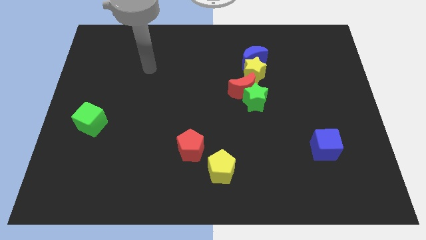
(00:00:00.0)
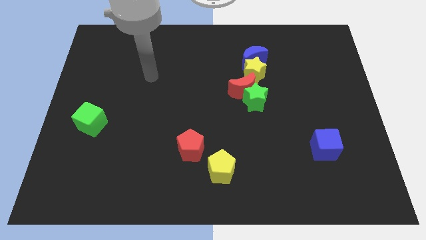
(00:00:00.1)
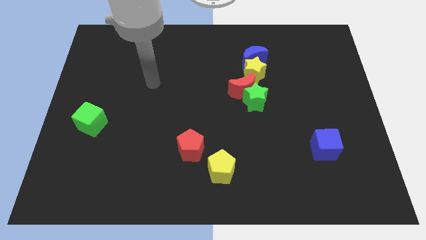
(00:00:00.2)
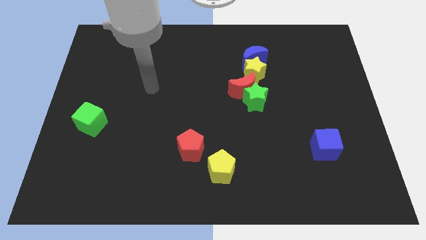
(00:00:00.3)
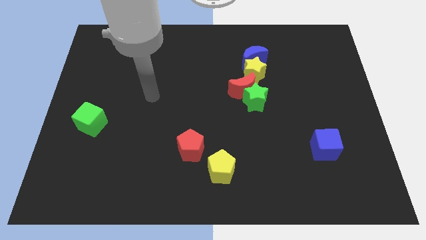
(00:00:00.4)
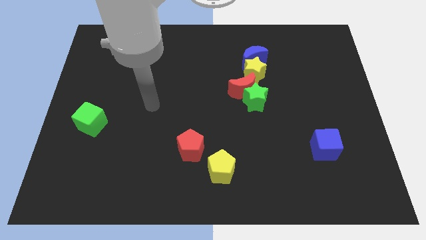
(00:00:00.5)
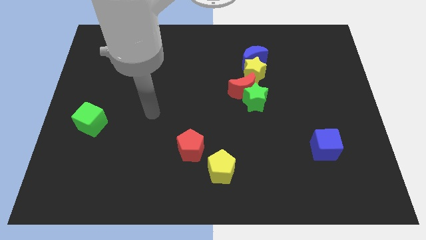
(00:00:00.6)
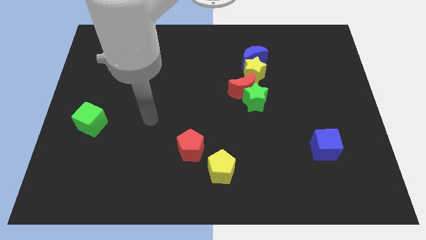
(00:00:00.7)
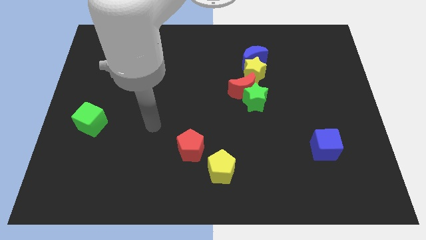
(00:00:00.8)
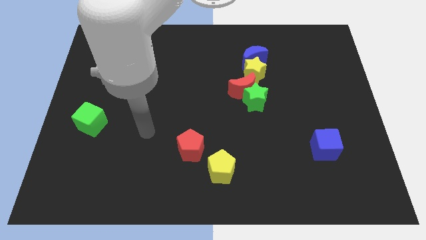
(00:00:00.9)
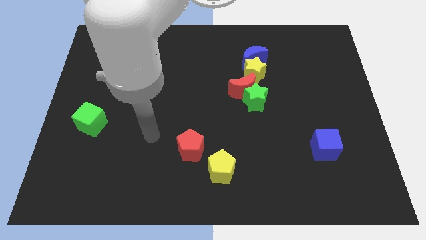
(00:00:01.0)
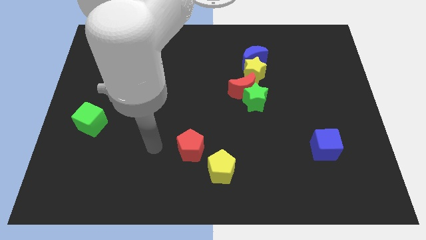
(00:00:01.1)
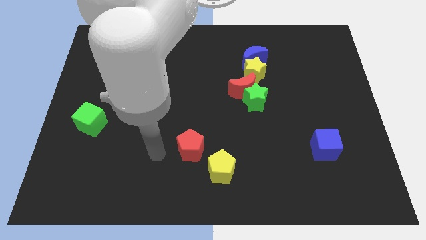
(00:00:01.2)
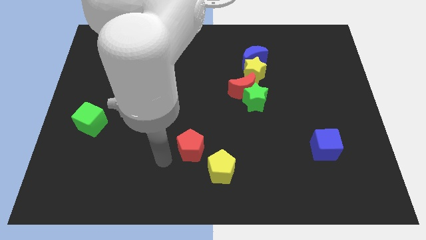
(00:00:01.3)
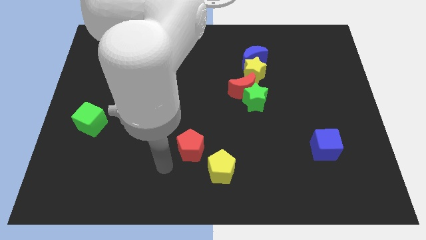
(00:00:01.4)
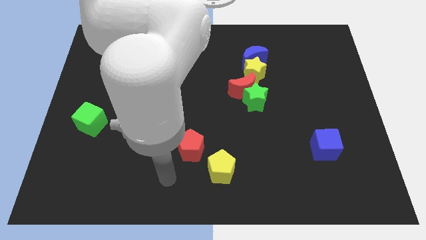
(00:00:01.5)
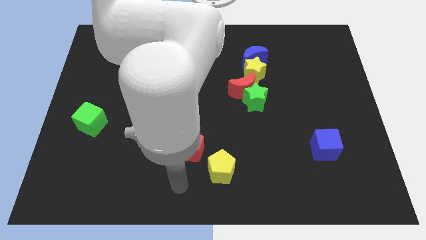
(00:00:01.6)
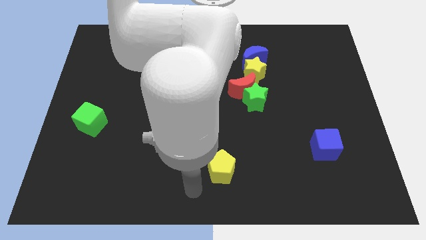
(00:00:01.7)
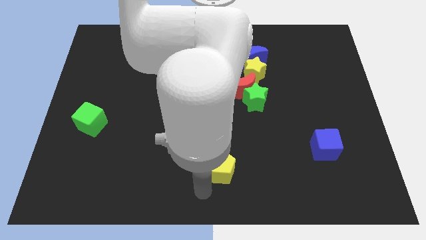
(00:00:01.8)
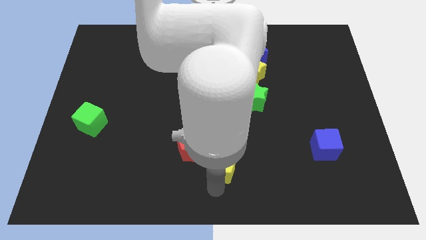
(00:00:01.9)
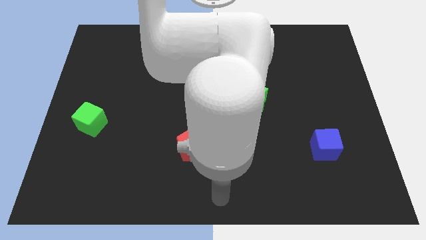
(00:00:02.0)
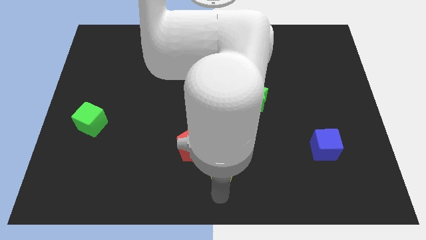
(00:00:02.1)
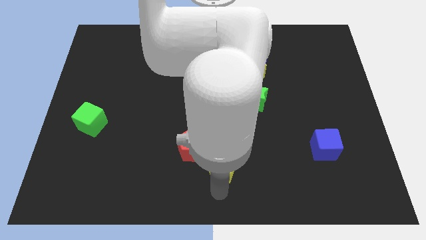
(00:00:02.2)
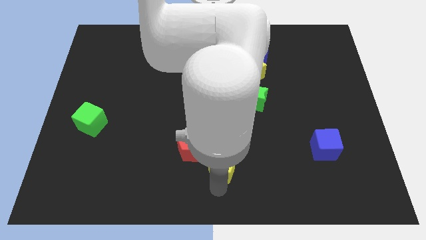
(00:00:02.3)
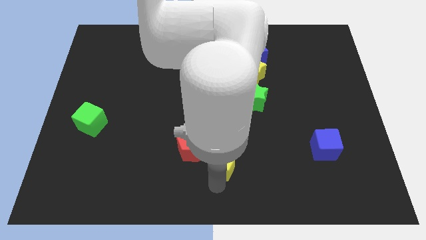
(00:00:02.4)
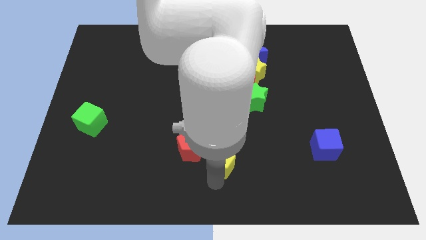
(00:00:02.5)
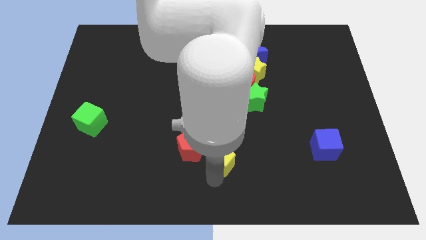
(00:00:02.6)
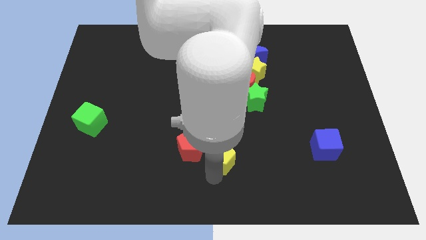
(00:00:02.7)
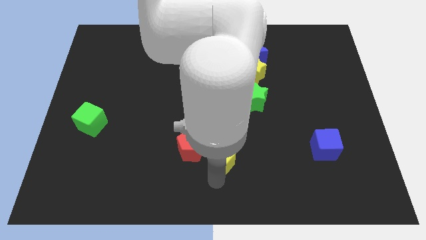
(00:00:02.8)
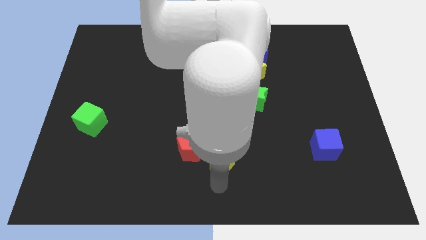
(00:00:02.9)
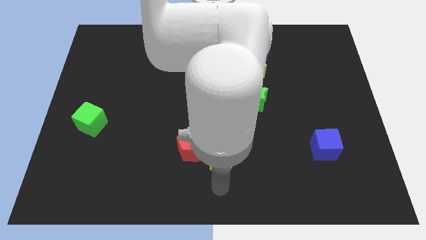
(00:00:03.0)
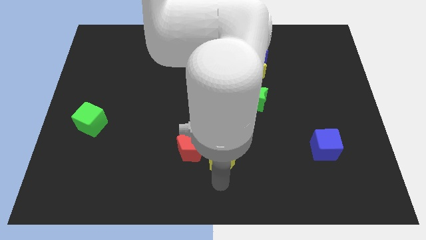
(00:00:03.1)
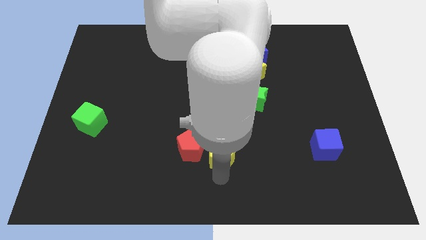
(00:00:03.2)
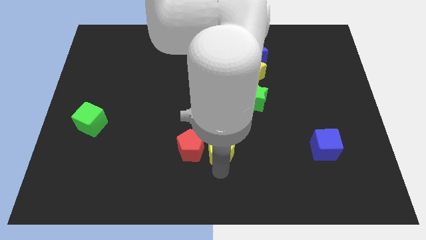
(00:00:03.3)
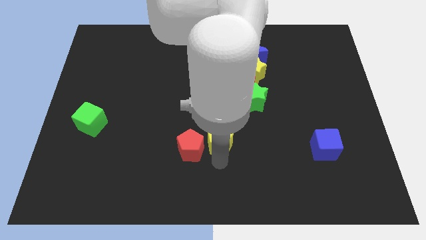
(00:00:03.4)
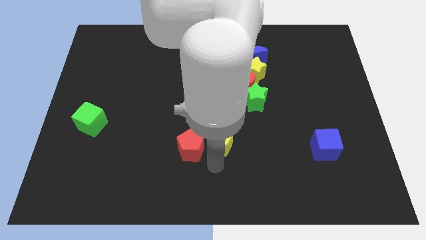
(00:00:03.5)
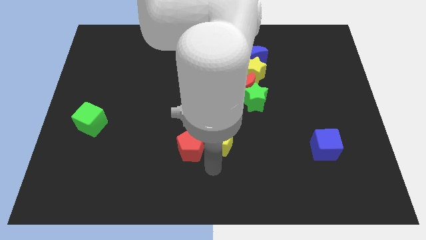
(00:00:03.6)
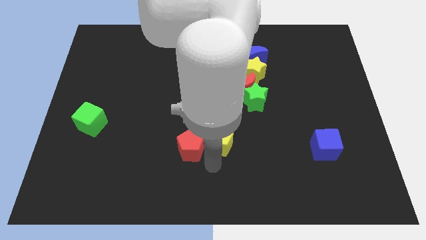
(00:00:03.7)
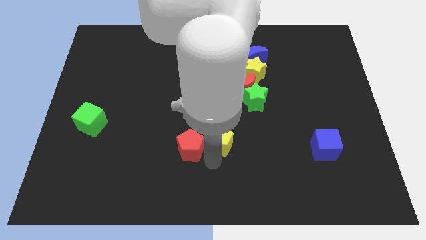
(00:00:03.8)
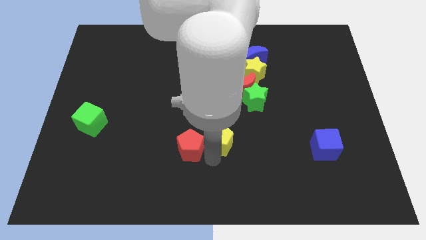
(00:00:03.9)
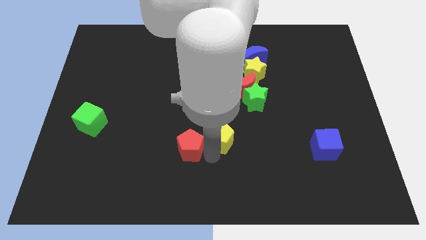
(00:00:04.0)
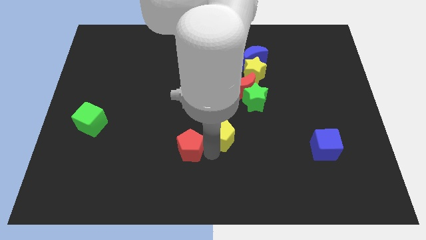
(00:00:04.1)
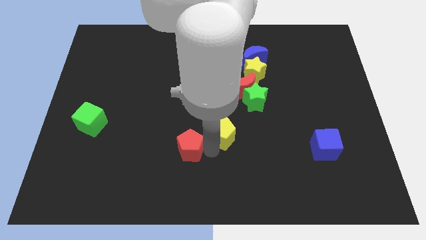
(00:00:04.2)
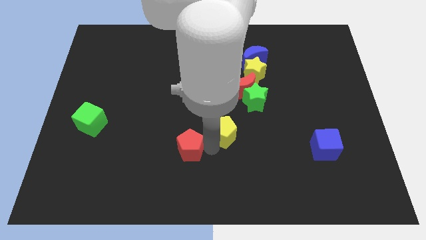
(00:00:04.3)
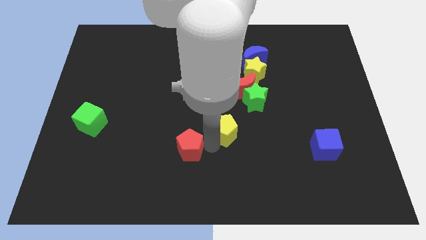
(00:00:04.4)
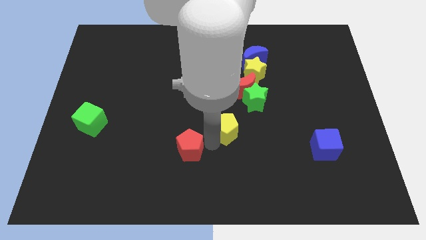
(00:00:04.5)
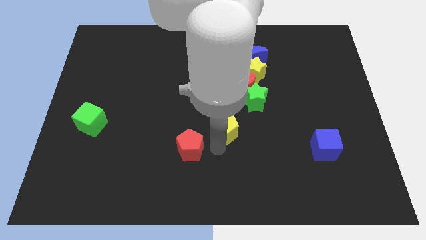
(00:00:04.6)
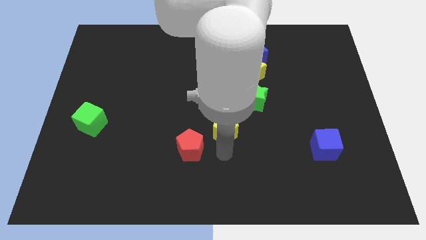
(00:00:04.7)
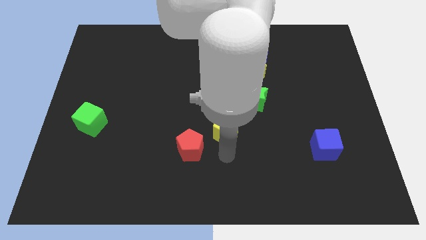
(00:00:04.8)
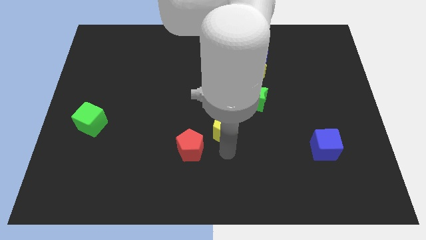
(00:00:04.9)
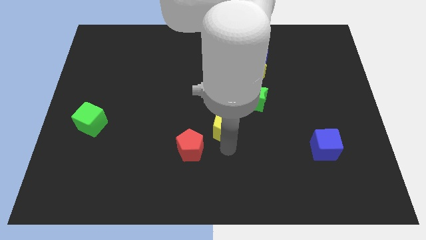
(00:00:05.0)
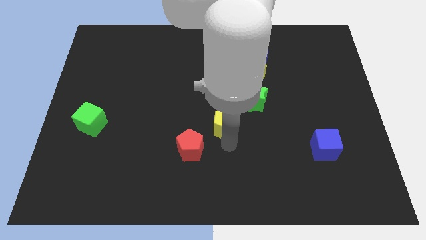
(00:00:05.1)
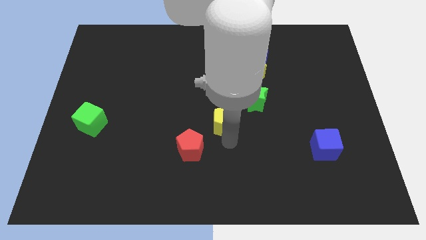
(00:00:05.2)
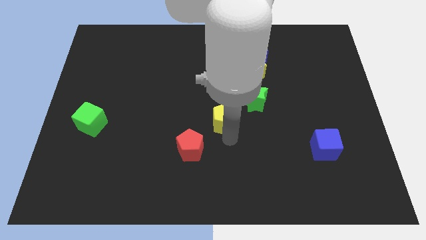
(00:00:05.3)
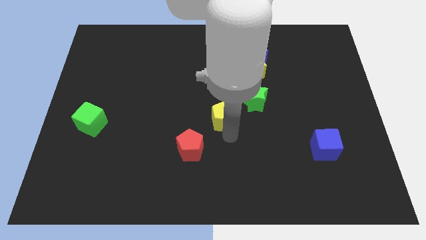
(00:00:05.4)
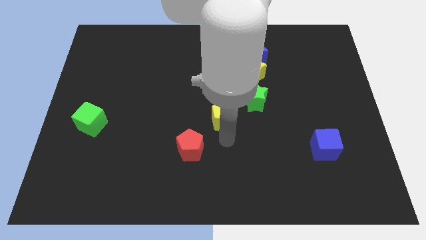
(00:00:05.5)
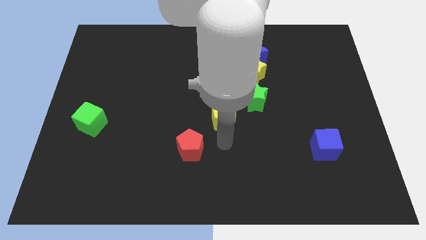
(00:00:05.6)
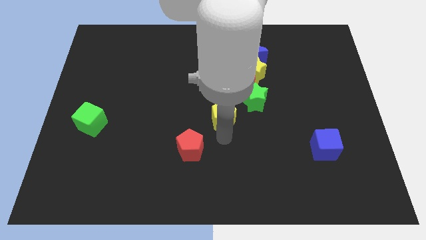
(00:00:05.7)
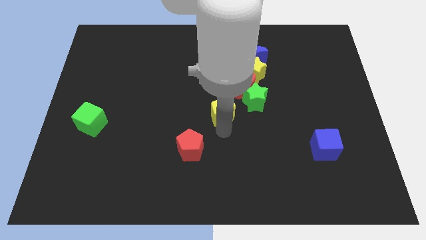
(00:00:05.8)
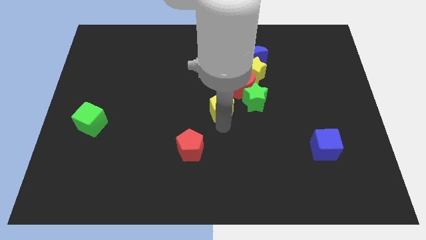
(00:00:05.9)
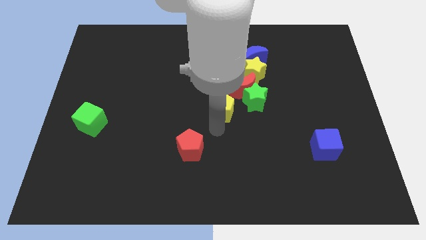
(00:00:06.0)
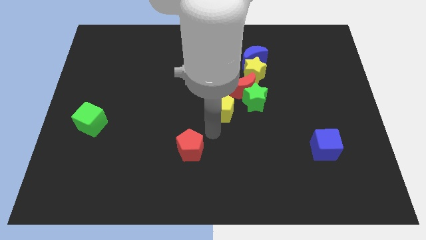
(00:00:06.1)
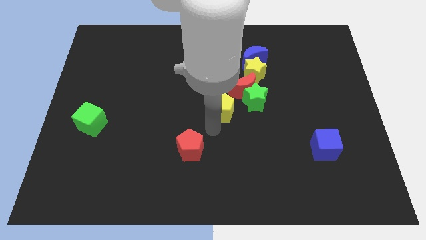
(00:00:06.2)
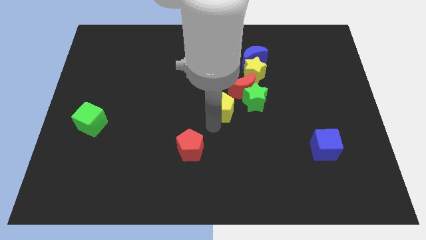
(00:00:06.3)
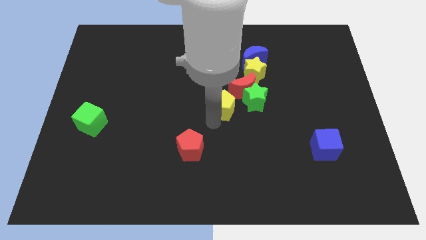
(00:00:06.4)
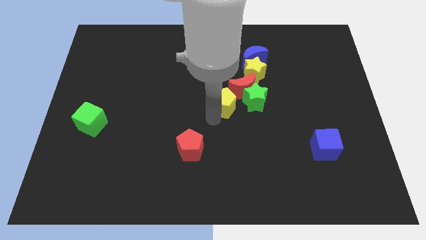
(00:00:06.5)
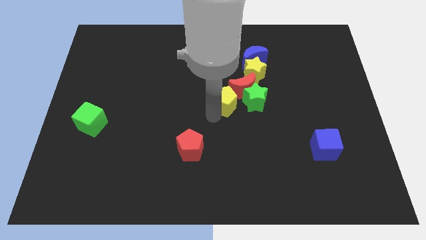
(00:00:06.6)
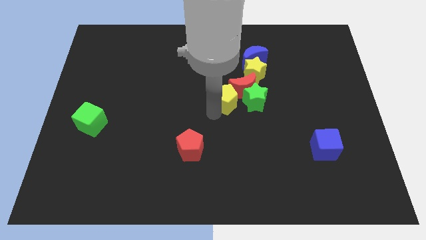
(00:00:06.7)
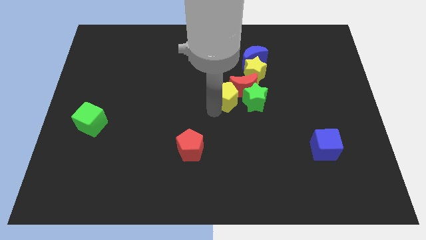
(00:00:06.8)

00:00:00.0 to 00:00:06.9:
slide the yellow pentagon to the top left of the green star
